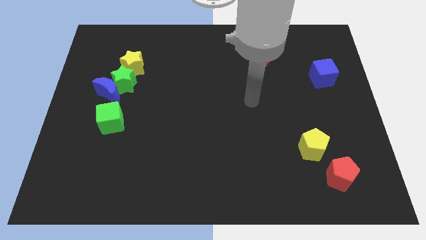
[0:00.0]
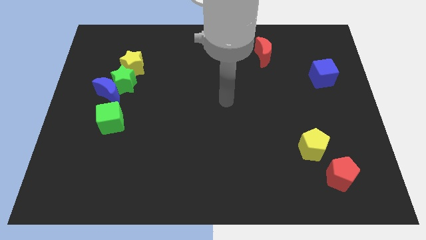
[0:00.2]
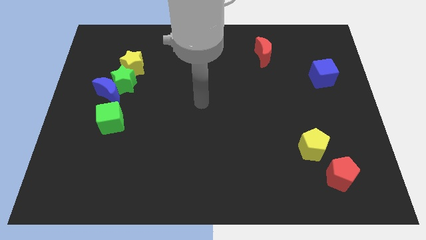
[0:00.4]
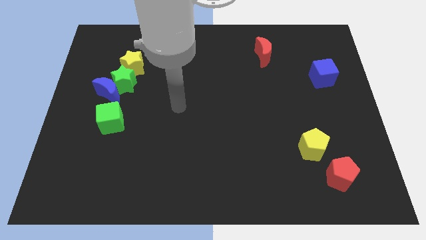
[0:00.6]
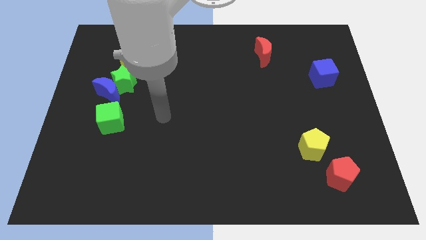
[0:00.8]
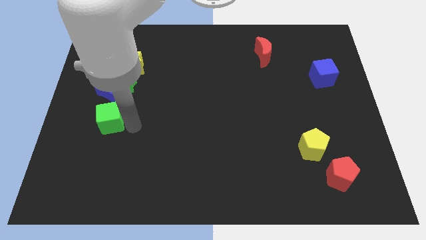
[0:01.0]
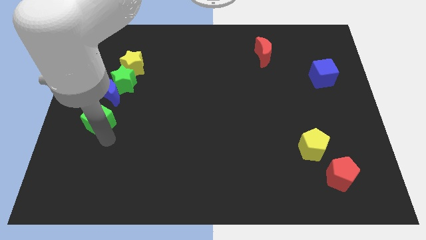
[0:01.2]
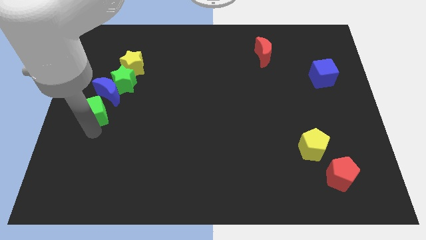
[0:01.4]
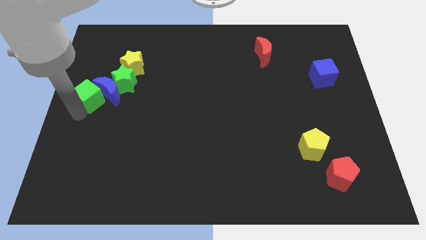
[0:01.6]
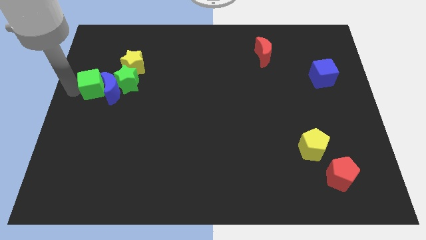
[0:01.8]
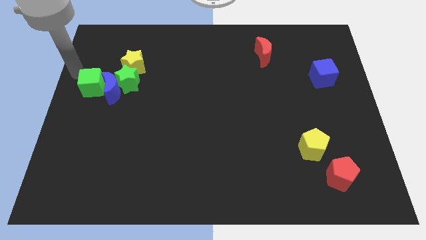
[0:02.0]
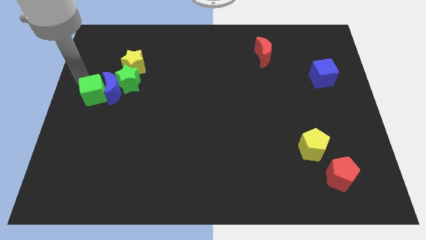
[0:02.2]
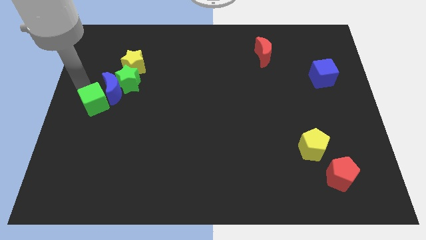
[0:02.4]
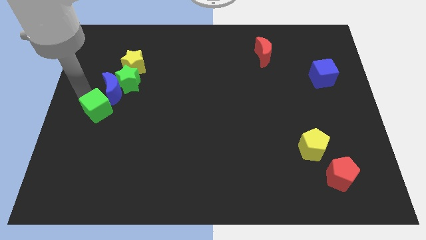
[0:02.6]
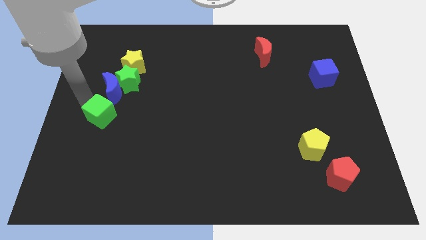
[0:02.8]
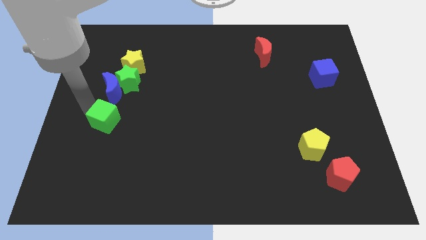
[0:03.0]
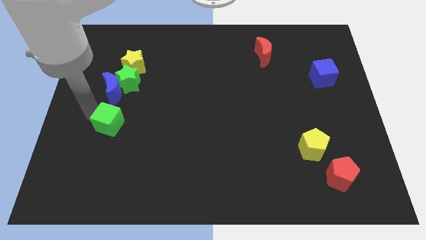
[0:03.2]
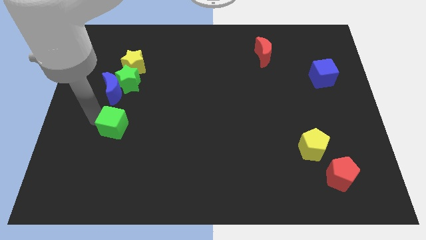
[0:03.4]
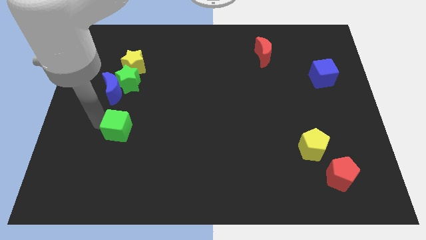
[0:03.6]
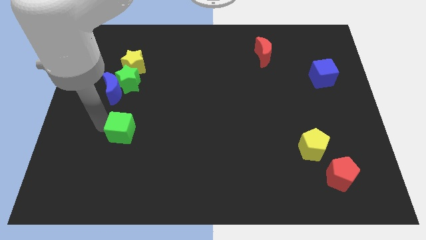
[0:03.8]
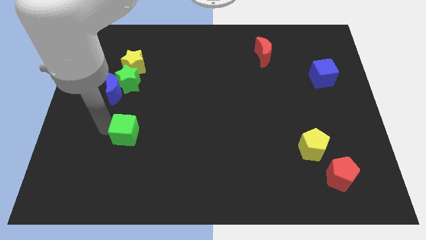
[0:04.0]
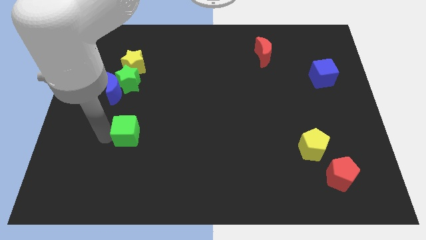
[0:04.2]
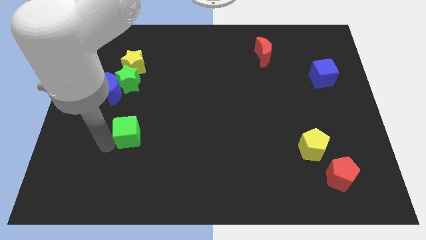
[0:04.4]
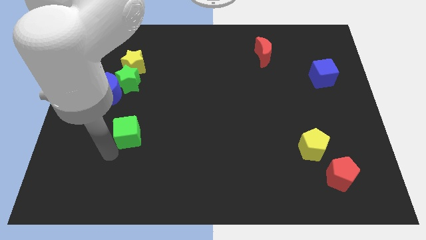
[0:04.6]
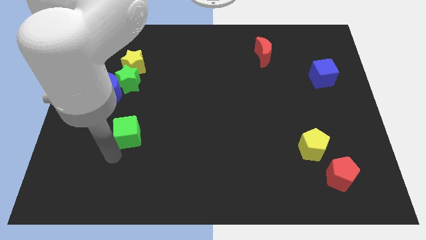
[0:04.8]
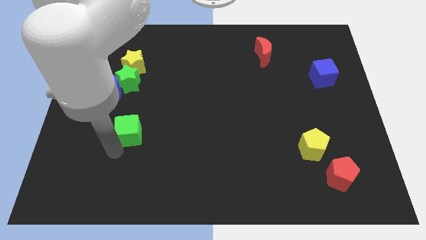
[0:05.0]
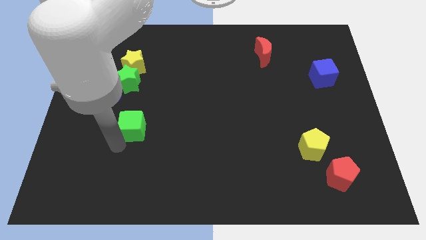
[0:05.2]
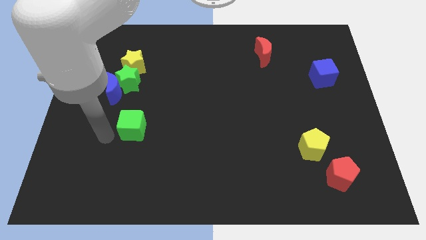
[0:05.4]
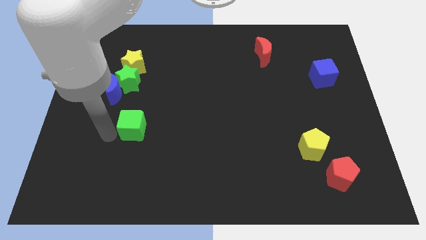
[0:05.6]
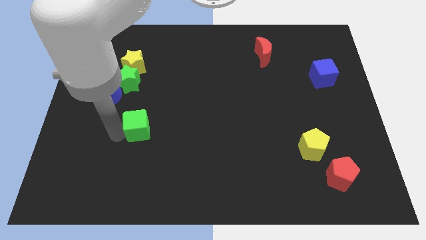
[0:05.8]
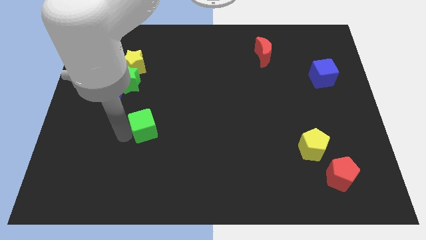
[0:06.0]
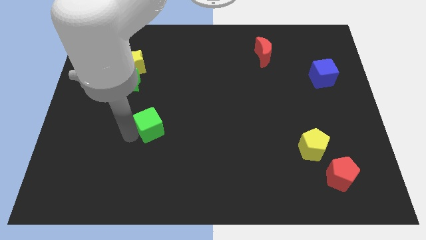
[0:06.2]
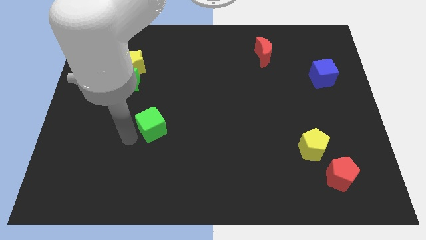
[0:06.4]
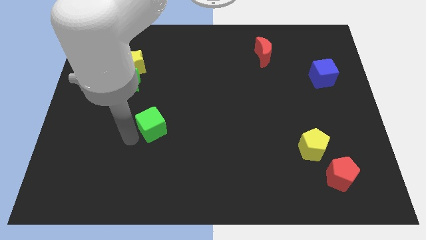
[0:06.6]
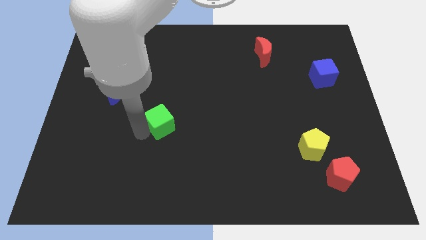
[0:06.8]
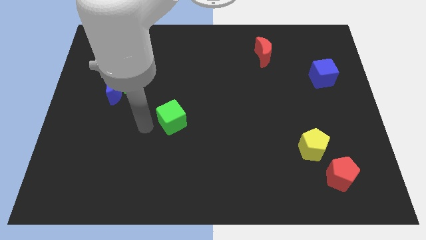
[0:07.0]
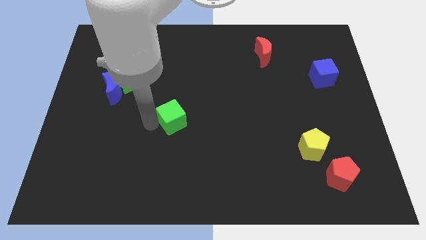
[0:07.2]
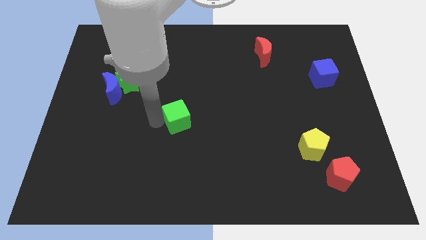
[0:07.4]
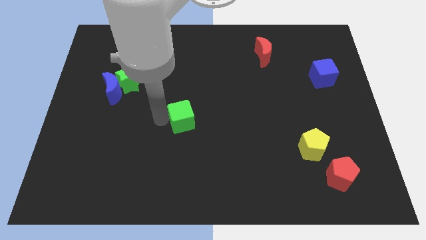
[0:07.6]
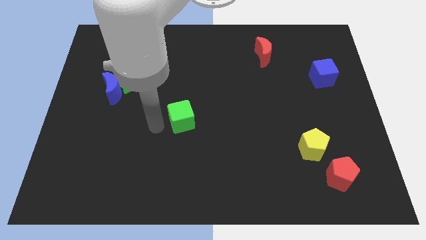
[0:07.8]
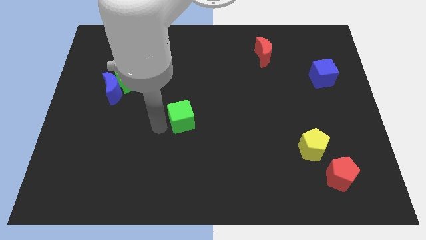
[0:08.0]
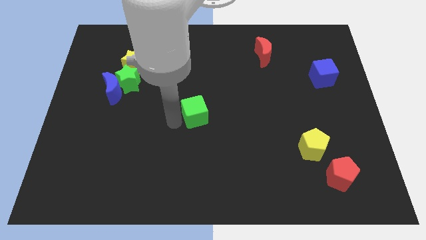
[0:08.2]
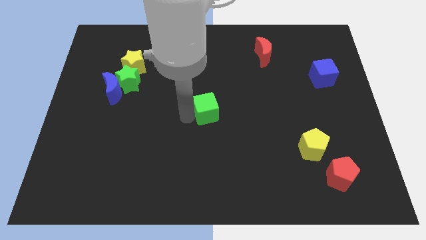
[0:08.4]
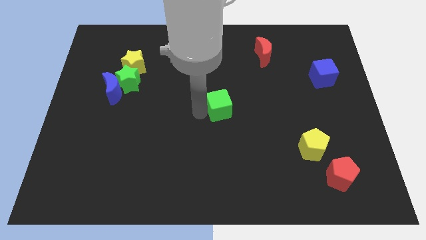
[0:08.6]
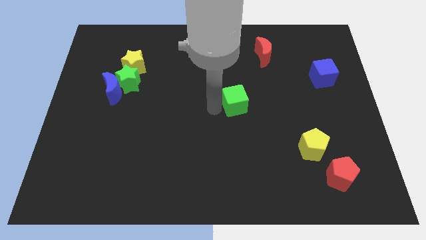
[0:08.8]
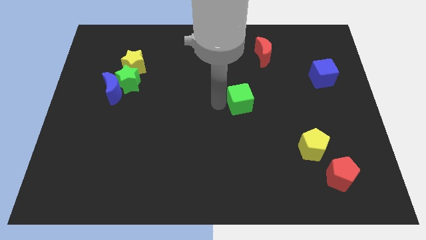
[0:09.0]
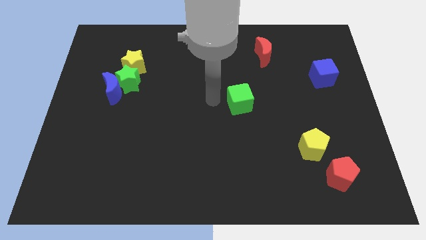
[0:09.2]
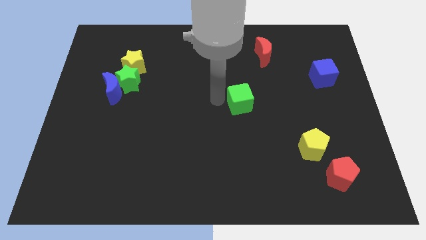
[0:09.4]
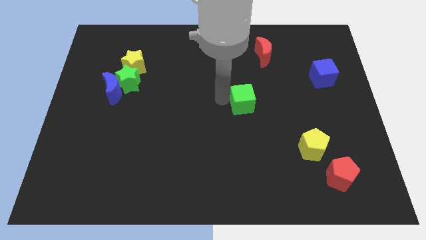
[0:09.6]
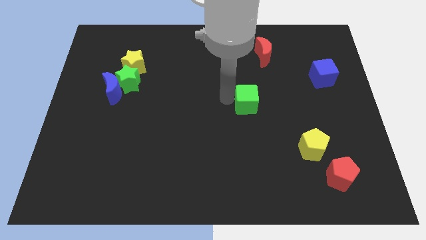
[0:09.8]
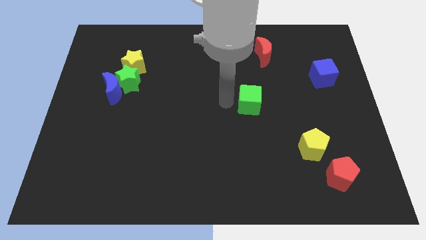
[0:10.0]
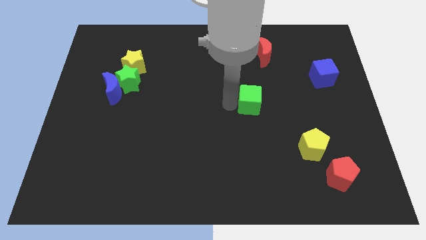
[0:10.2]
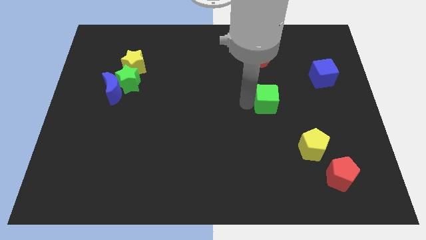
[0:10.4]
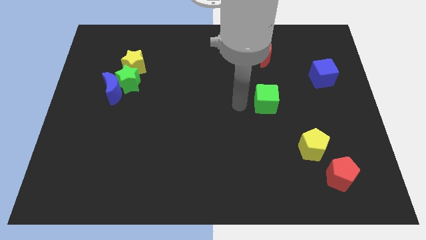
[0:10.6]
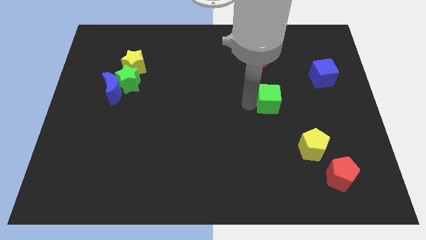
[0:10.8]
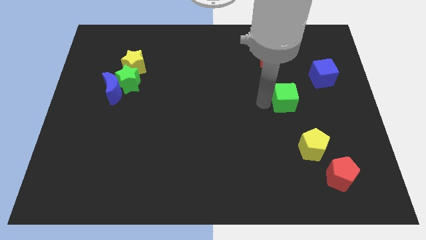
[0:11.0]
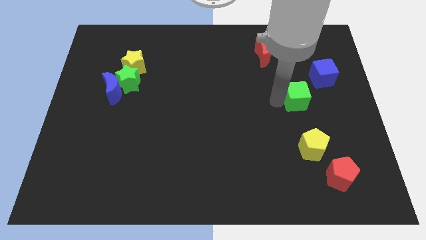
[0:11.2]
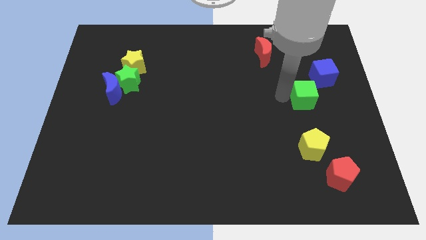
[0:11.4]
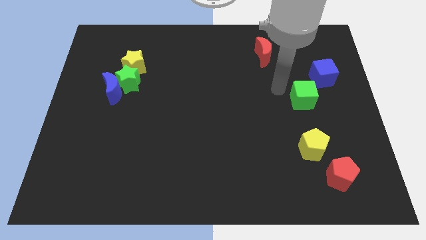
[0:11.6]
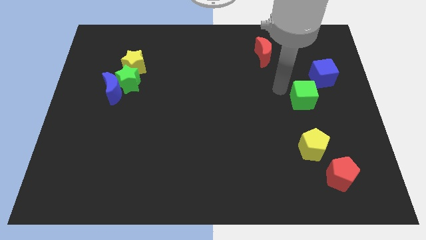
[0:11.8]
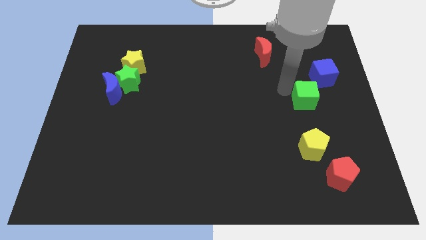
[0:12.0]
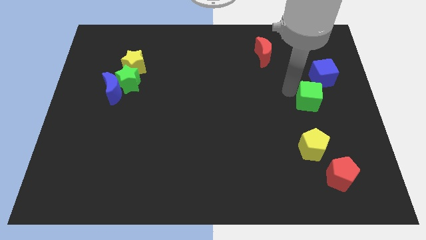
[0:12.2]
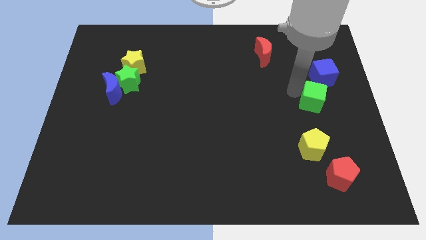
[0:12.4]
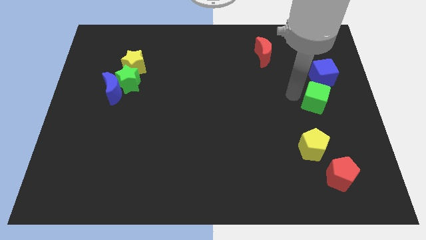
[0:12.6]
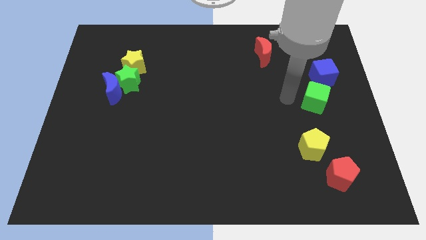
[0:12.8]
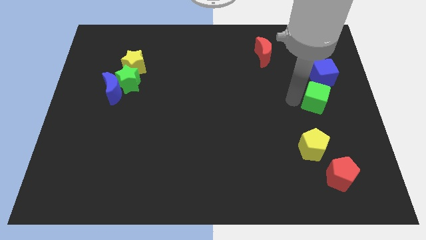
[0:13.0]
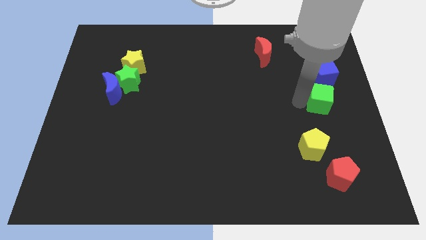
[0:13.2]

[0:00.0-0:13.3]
slide the green cube to the right side
